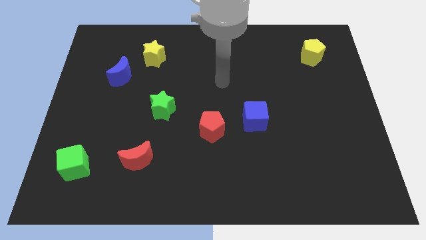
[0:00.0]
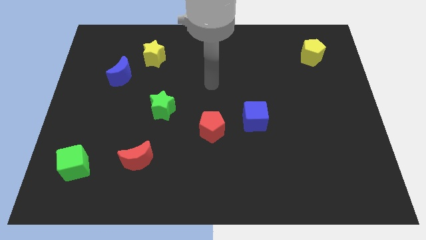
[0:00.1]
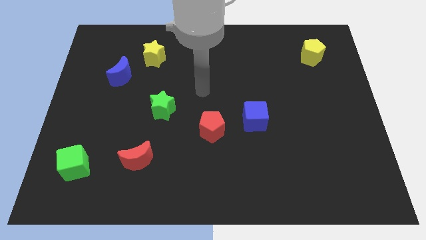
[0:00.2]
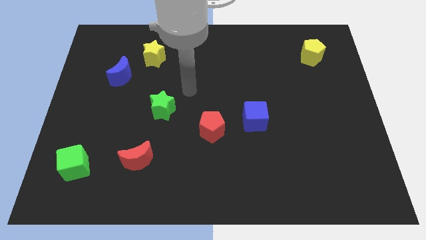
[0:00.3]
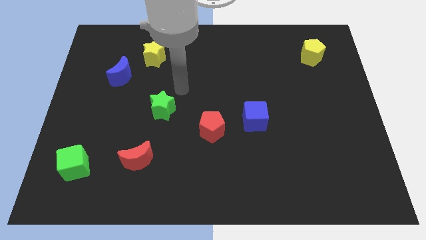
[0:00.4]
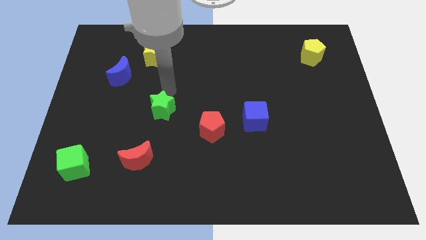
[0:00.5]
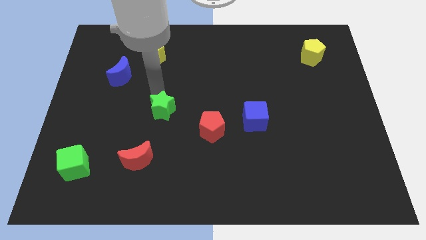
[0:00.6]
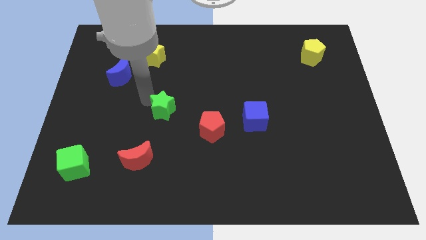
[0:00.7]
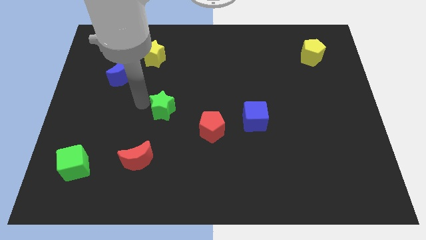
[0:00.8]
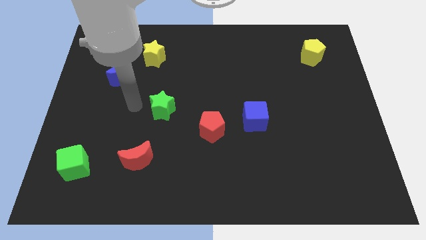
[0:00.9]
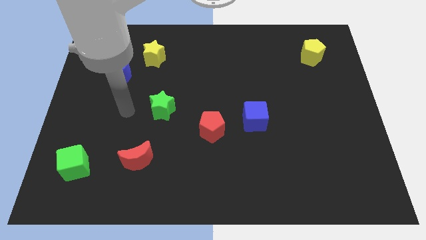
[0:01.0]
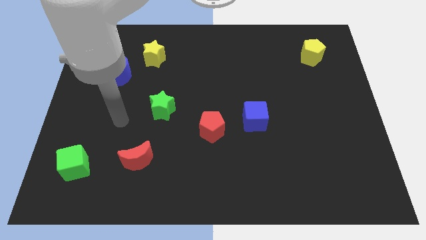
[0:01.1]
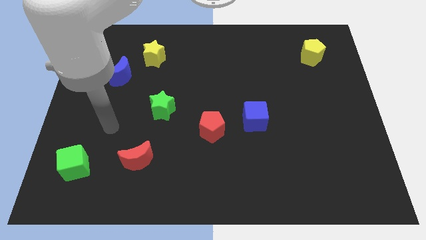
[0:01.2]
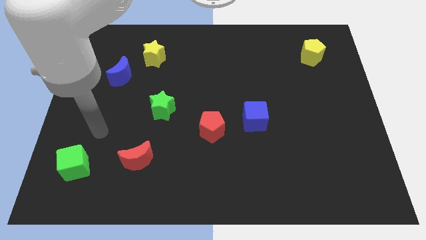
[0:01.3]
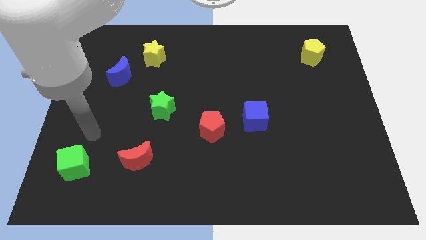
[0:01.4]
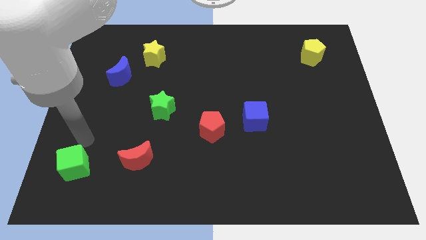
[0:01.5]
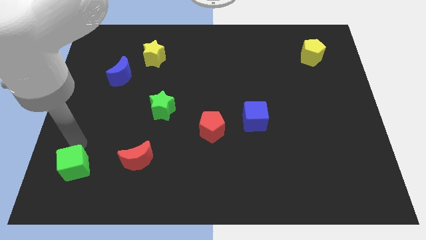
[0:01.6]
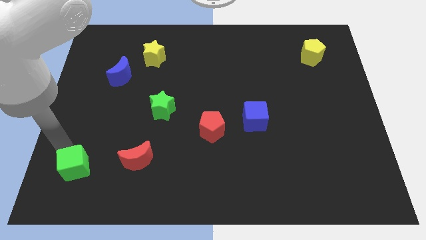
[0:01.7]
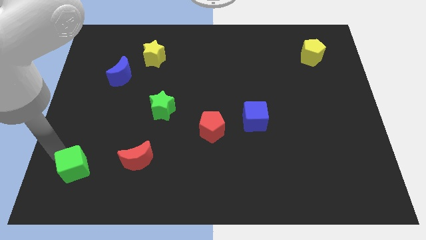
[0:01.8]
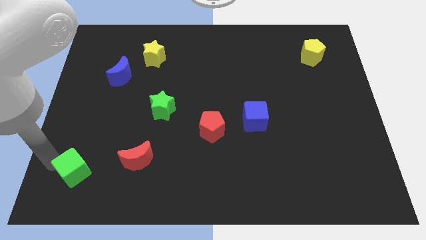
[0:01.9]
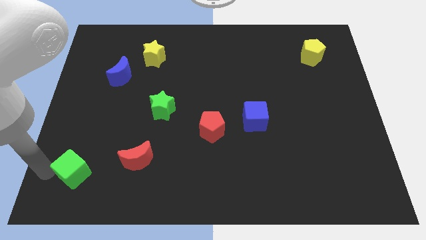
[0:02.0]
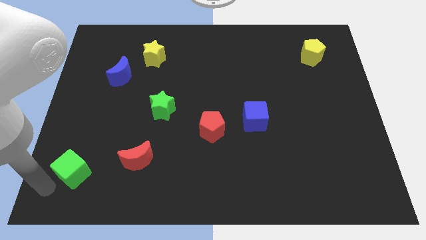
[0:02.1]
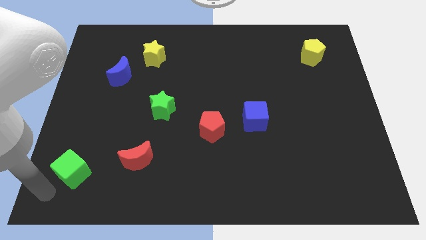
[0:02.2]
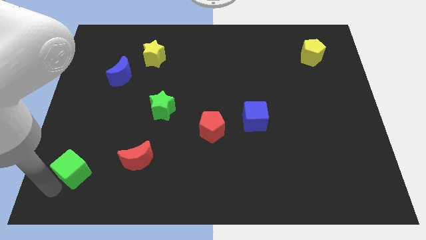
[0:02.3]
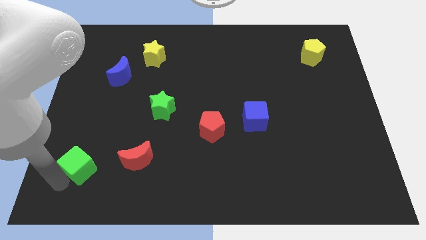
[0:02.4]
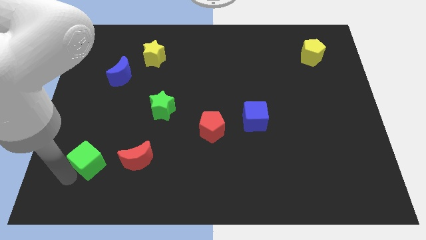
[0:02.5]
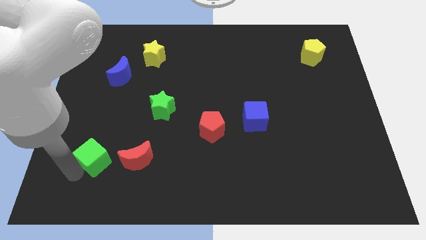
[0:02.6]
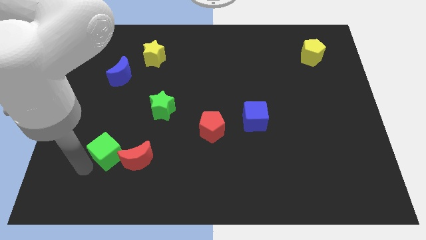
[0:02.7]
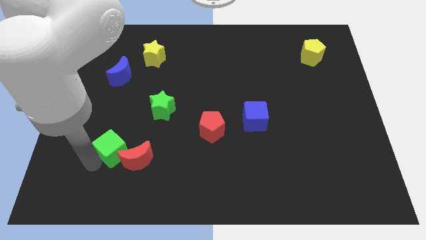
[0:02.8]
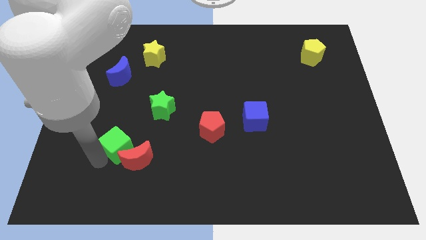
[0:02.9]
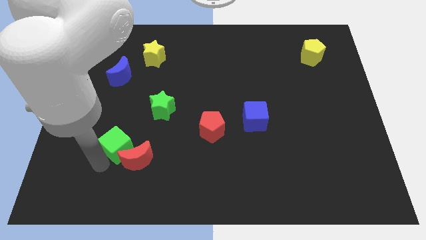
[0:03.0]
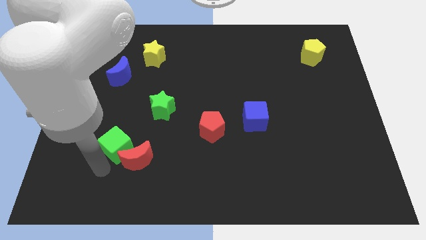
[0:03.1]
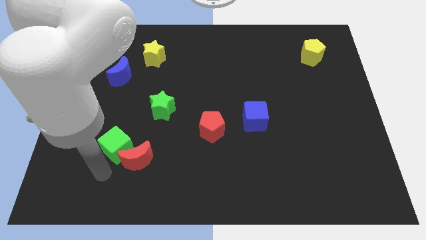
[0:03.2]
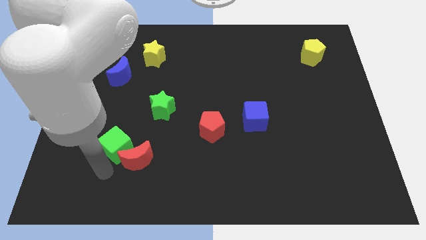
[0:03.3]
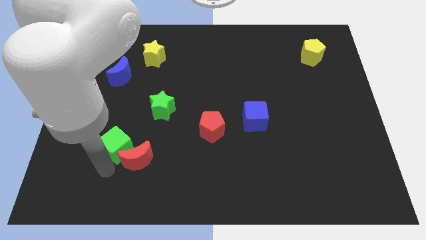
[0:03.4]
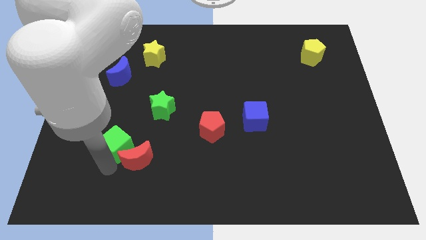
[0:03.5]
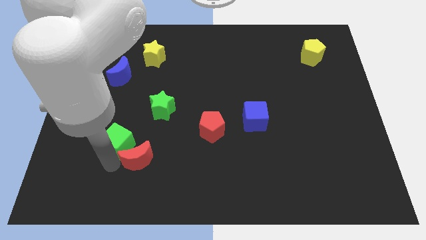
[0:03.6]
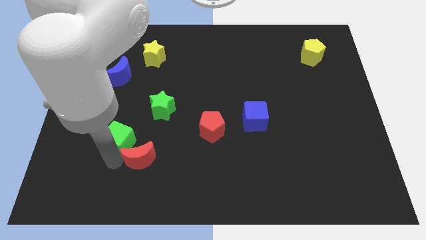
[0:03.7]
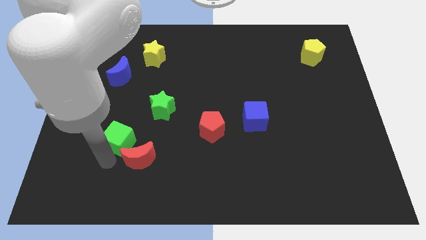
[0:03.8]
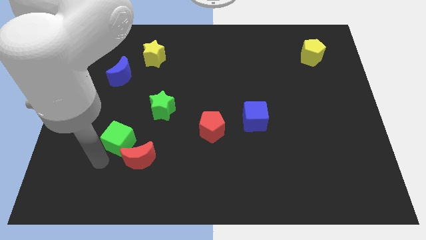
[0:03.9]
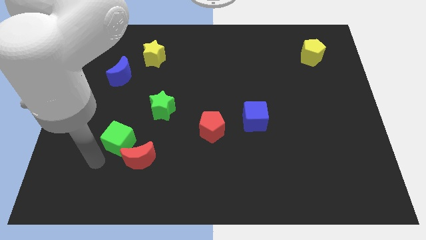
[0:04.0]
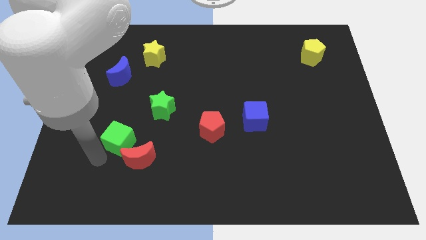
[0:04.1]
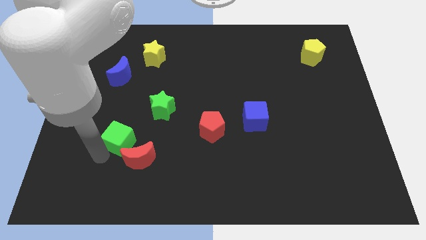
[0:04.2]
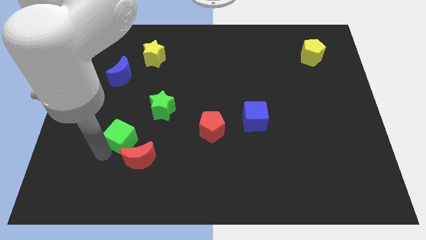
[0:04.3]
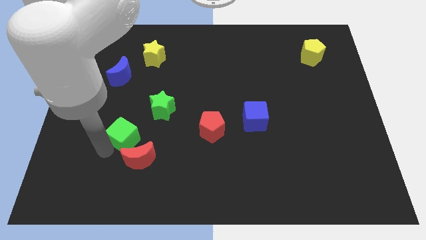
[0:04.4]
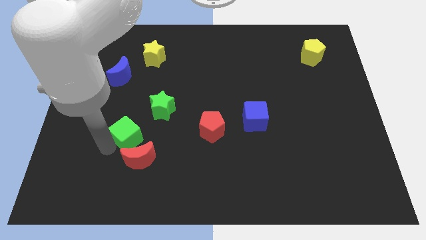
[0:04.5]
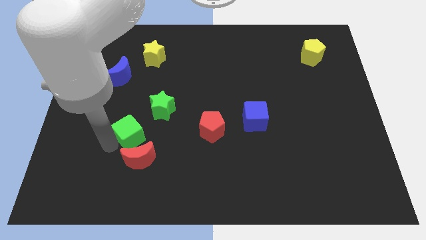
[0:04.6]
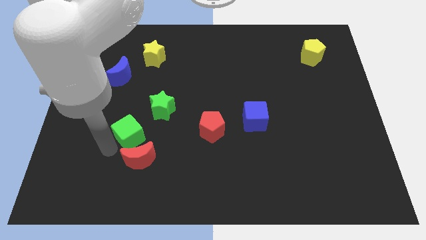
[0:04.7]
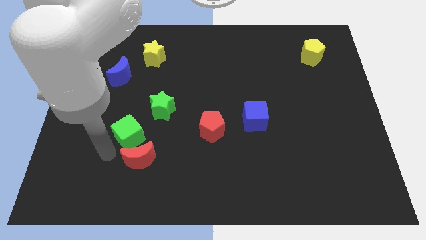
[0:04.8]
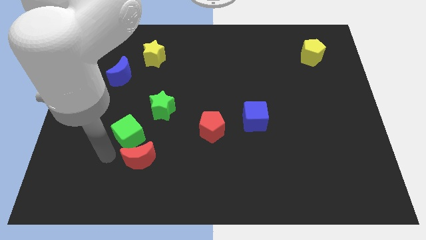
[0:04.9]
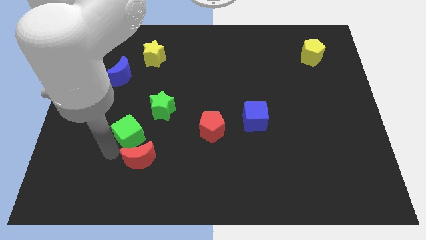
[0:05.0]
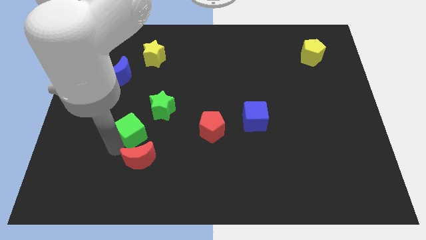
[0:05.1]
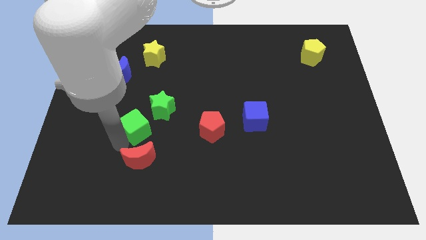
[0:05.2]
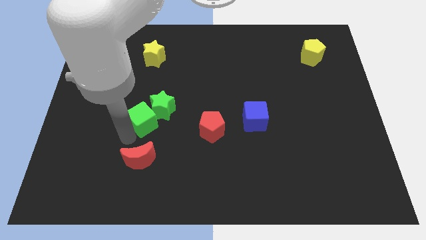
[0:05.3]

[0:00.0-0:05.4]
put the green cube close to the green star

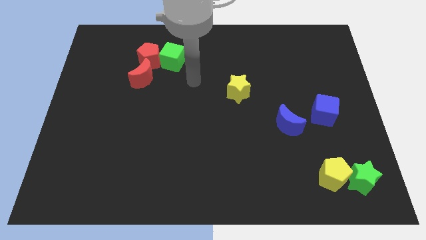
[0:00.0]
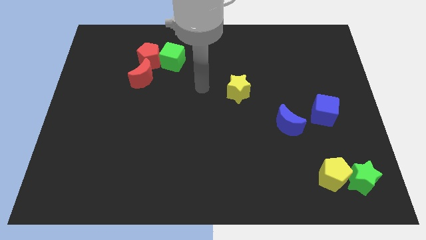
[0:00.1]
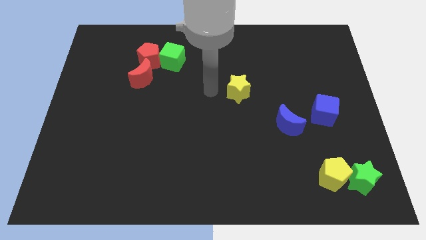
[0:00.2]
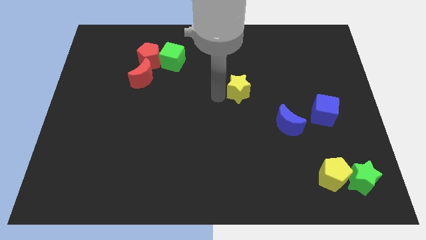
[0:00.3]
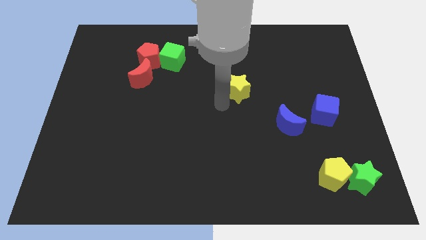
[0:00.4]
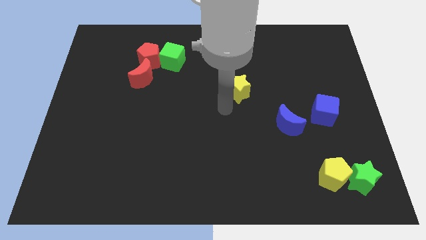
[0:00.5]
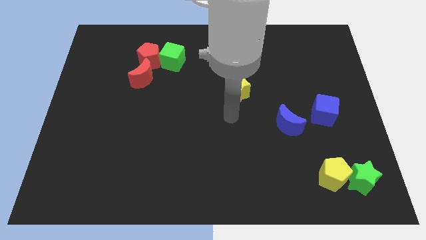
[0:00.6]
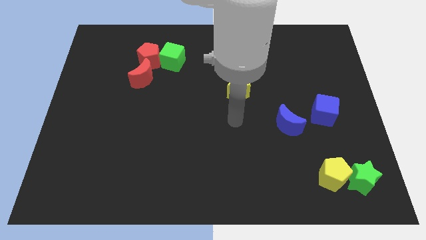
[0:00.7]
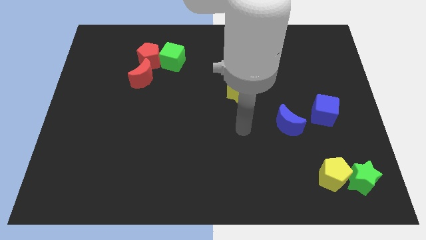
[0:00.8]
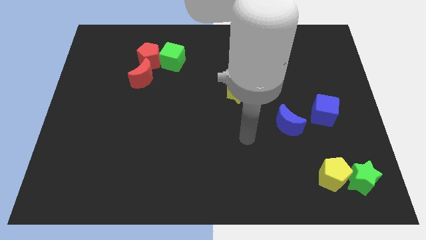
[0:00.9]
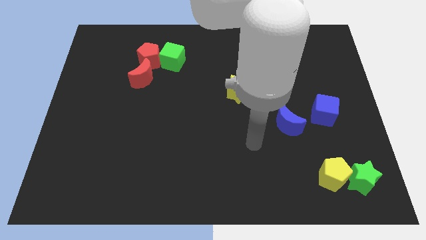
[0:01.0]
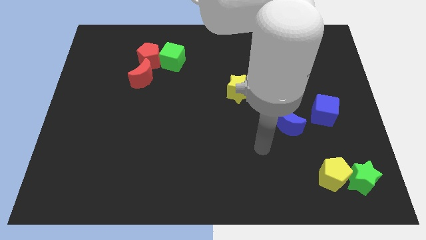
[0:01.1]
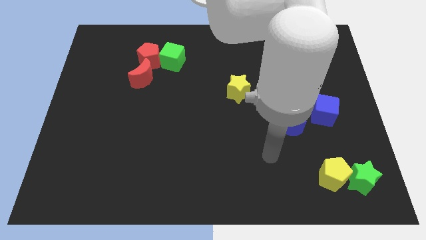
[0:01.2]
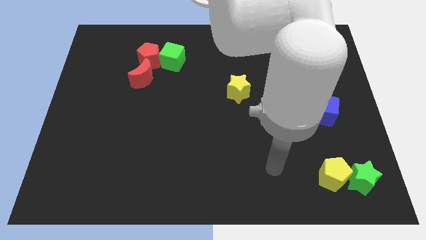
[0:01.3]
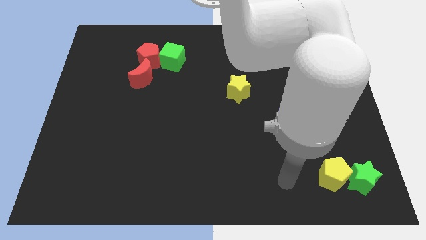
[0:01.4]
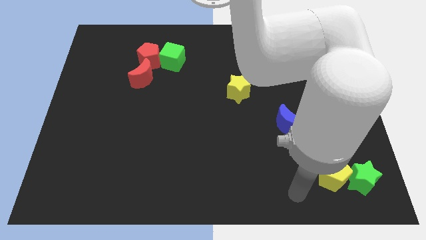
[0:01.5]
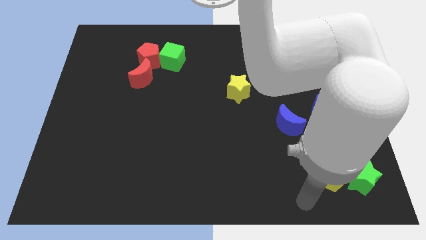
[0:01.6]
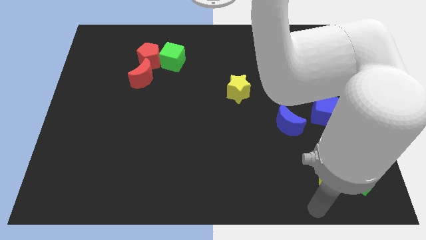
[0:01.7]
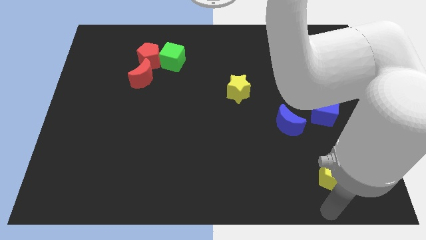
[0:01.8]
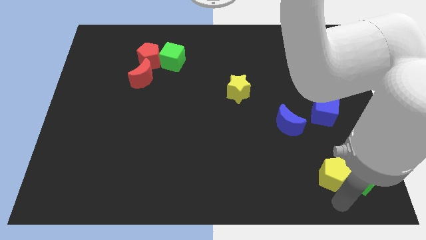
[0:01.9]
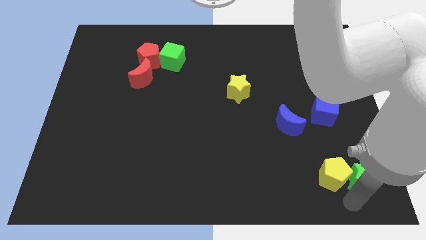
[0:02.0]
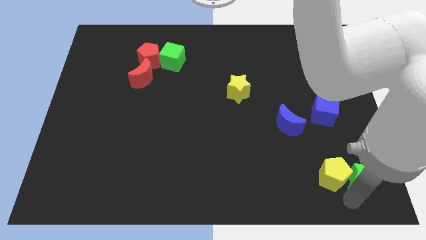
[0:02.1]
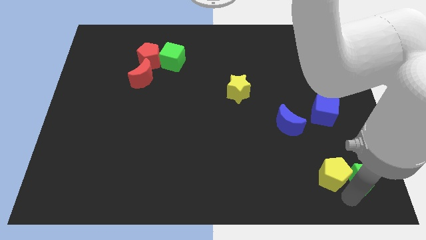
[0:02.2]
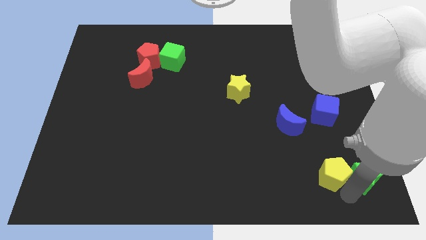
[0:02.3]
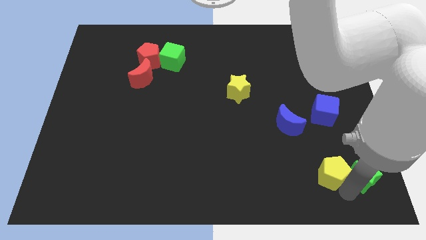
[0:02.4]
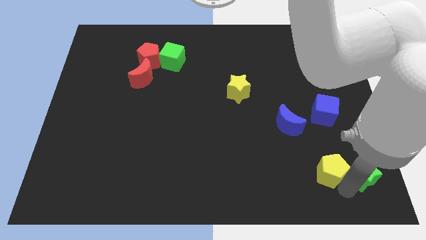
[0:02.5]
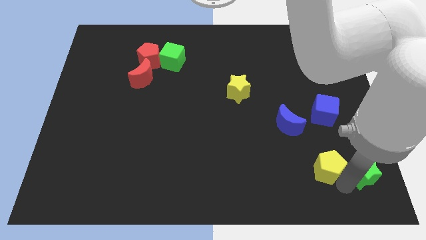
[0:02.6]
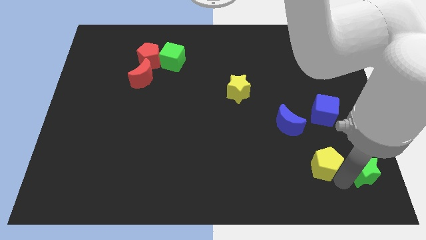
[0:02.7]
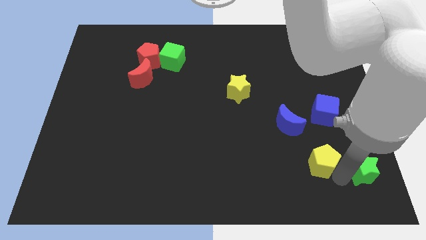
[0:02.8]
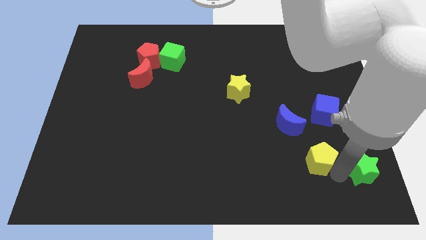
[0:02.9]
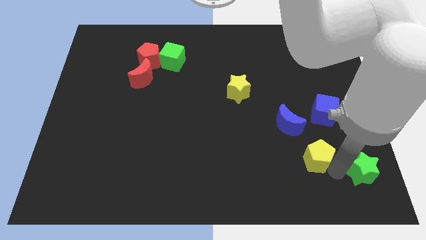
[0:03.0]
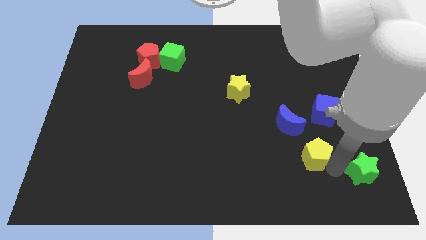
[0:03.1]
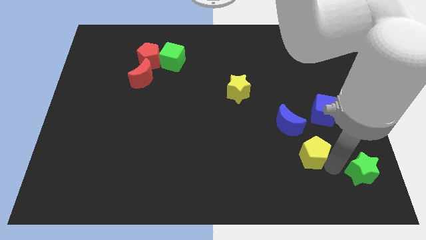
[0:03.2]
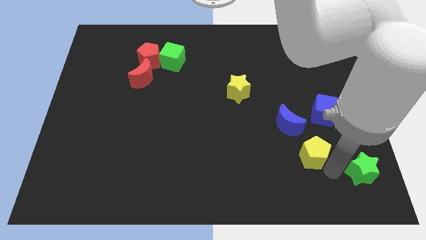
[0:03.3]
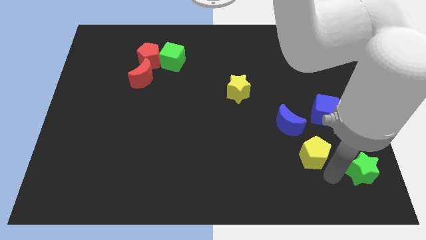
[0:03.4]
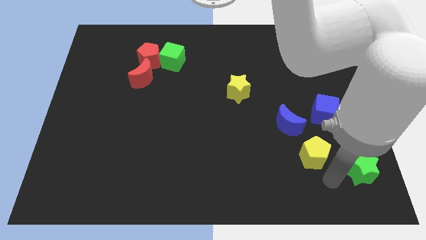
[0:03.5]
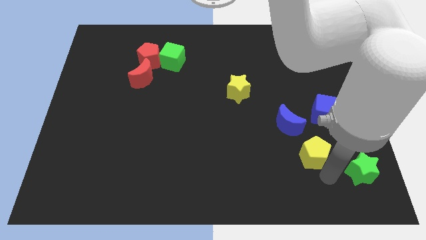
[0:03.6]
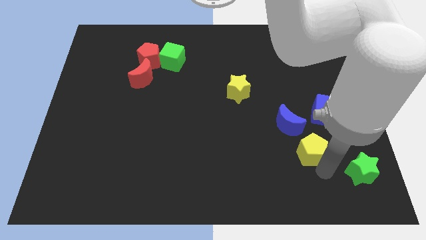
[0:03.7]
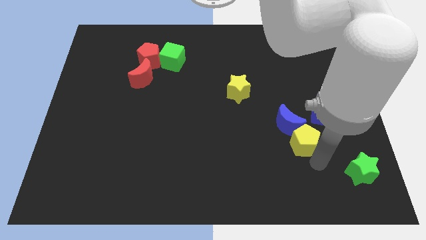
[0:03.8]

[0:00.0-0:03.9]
push the yellow pentagon next to the blue moon
